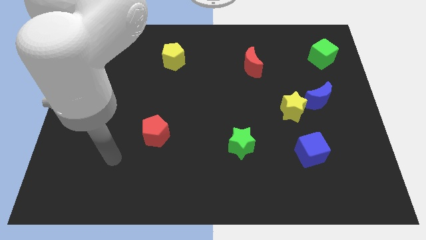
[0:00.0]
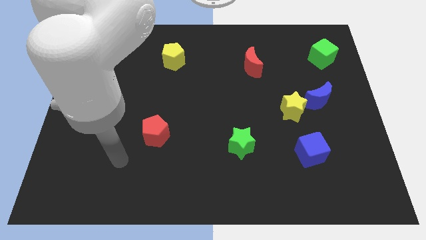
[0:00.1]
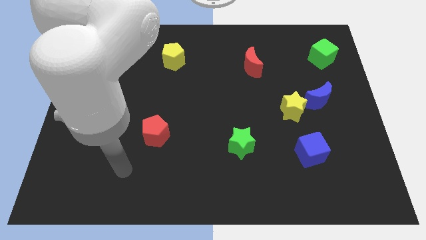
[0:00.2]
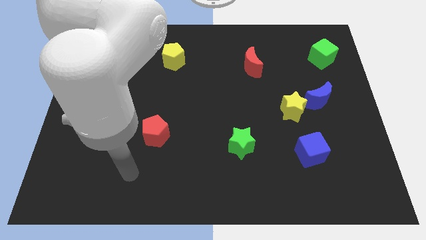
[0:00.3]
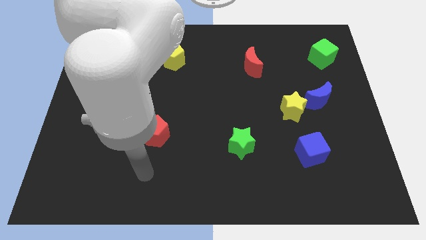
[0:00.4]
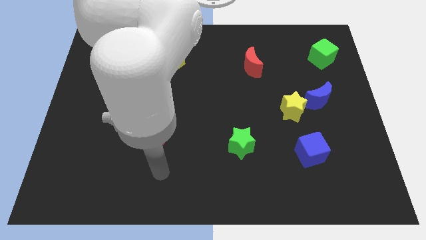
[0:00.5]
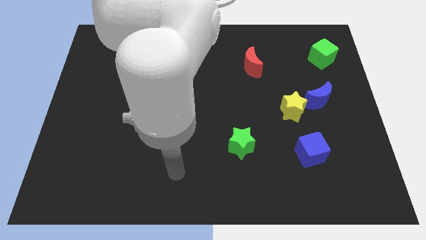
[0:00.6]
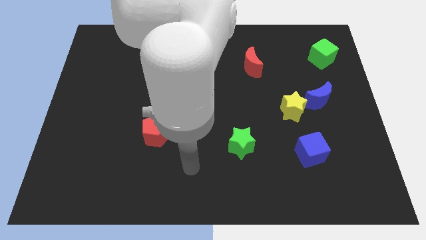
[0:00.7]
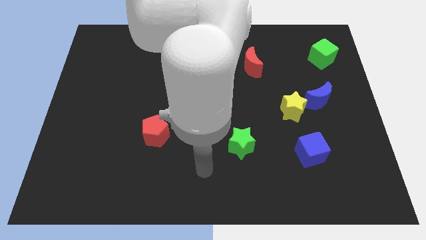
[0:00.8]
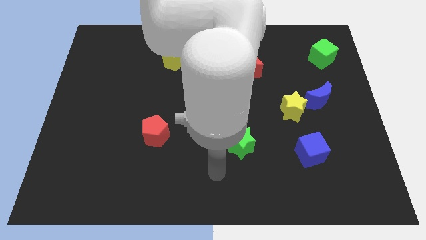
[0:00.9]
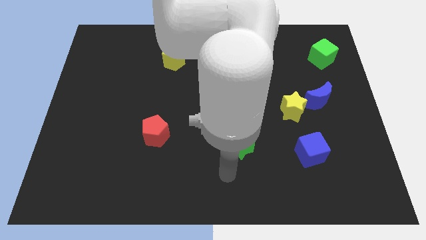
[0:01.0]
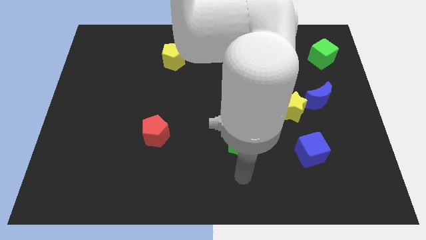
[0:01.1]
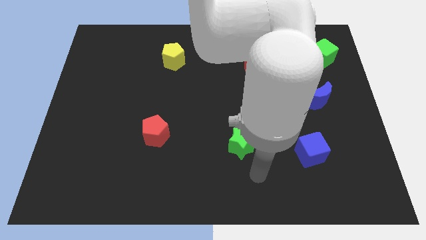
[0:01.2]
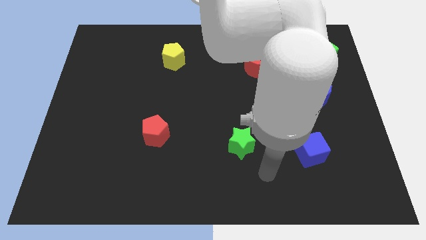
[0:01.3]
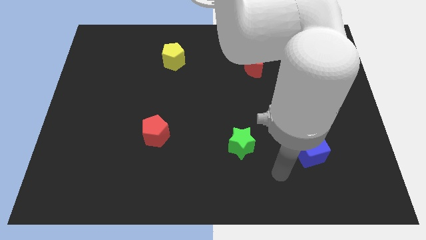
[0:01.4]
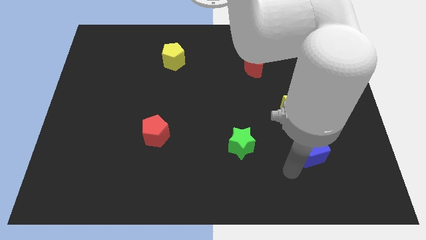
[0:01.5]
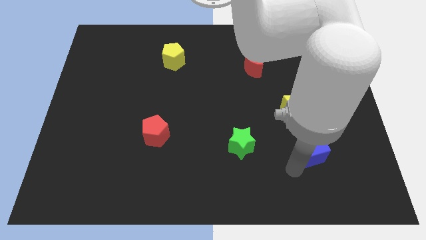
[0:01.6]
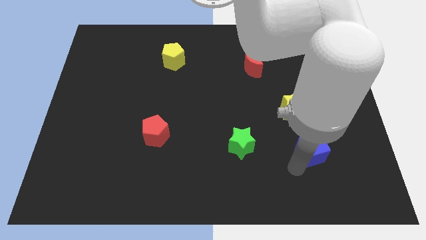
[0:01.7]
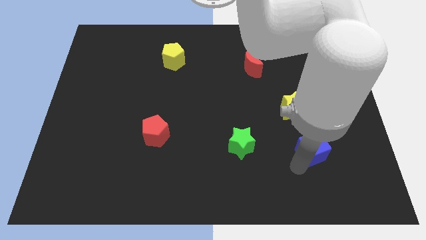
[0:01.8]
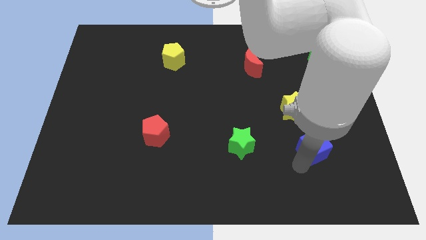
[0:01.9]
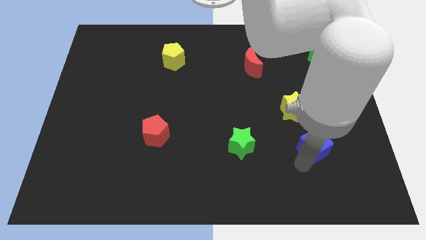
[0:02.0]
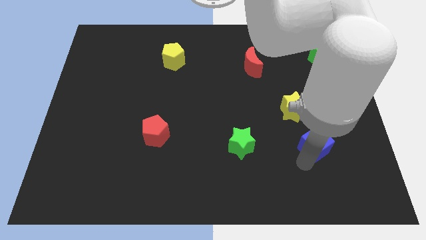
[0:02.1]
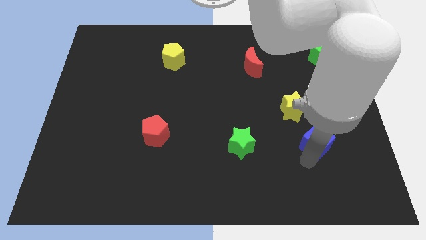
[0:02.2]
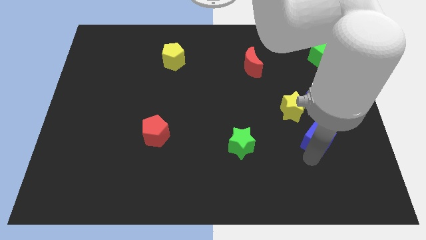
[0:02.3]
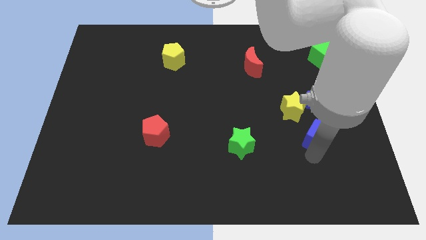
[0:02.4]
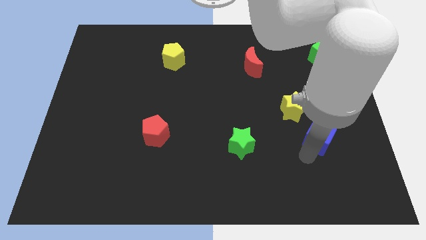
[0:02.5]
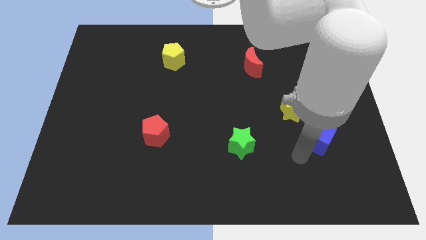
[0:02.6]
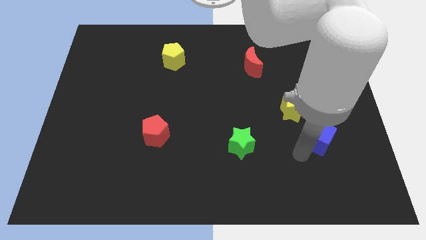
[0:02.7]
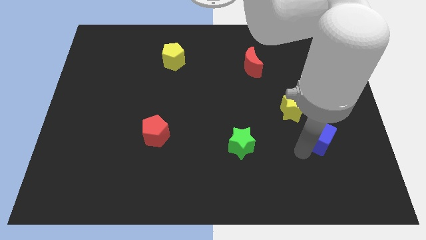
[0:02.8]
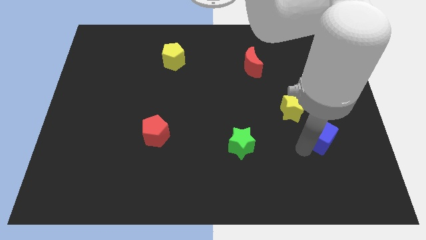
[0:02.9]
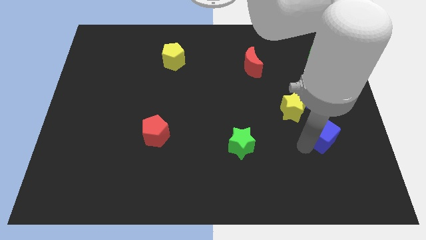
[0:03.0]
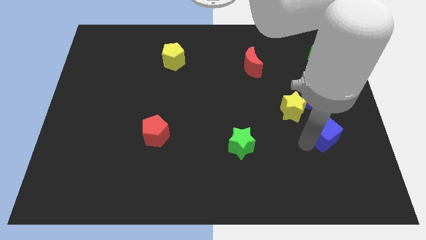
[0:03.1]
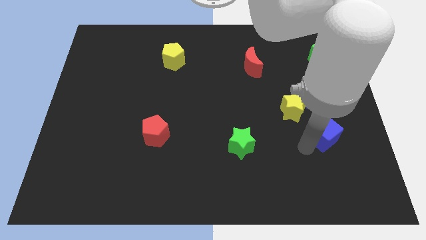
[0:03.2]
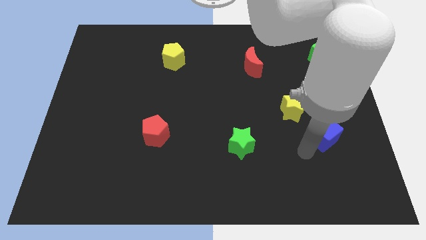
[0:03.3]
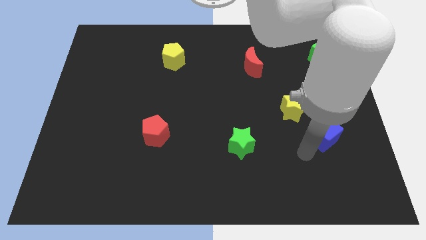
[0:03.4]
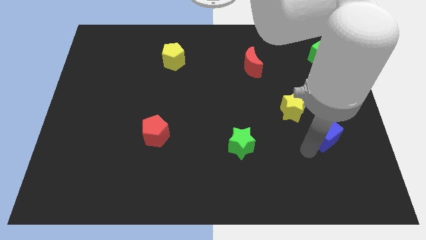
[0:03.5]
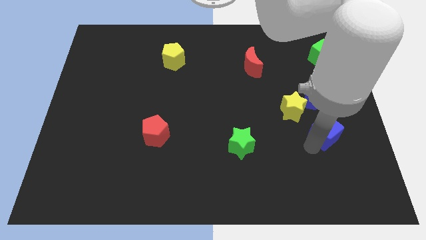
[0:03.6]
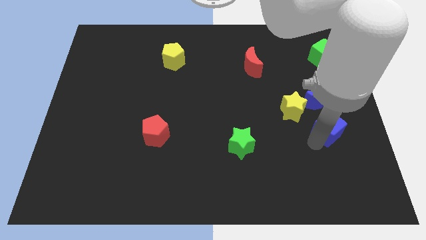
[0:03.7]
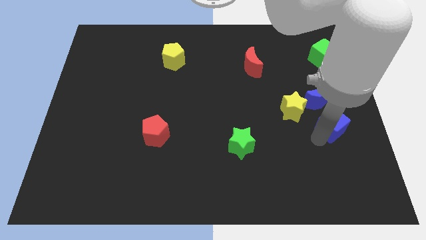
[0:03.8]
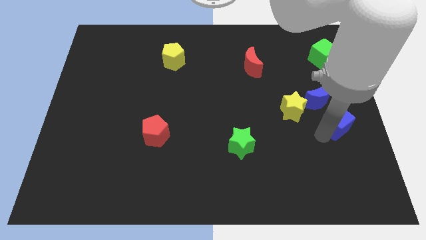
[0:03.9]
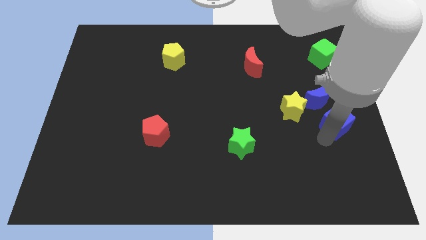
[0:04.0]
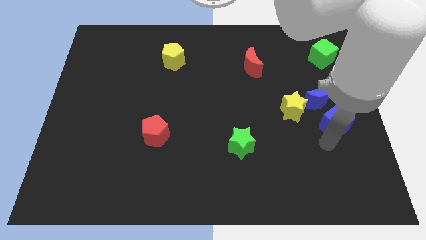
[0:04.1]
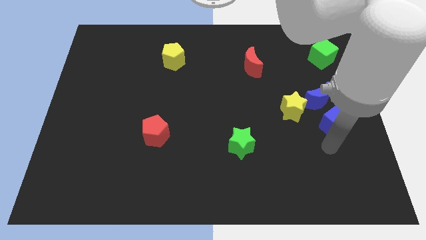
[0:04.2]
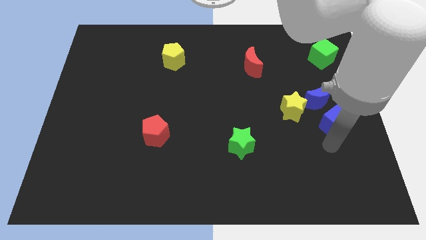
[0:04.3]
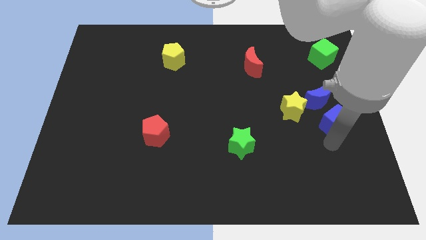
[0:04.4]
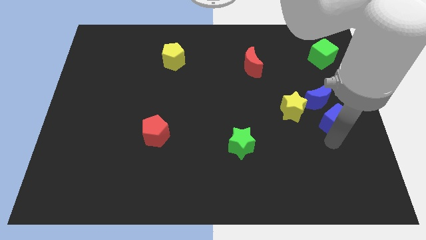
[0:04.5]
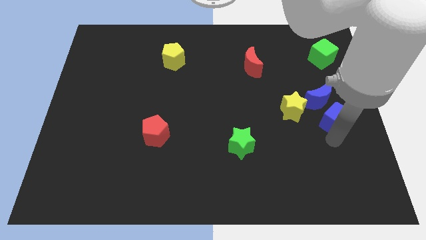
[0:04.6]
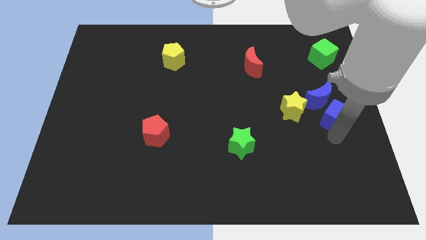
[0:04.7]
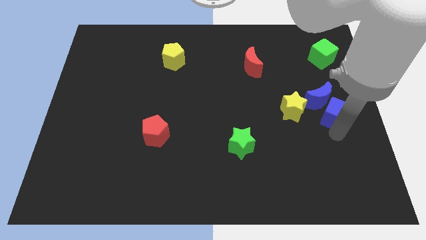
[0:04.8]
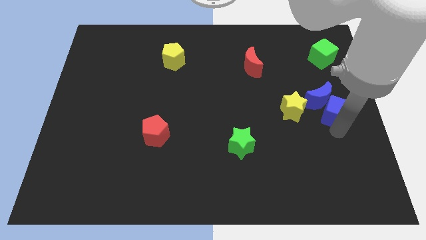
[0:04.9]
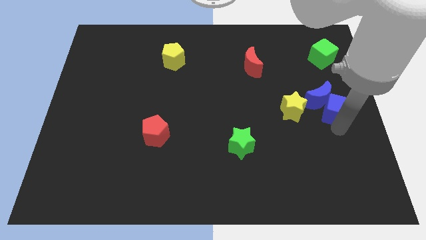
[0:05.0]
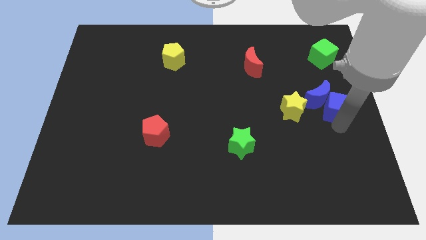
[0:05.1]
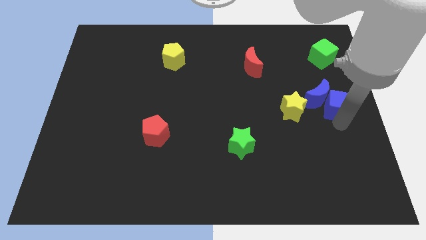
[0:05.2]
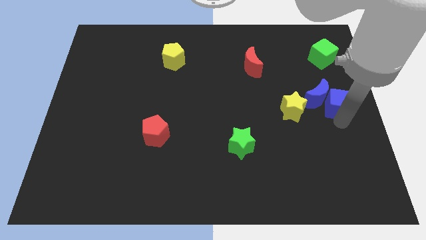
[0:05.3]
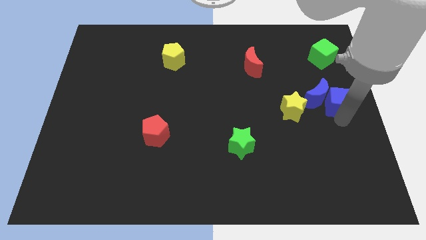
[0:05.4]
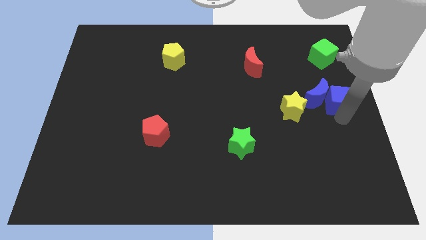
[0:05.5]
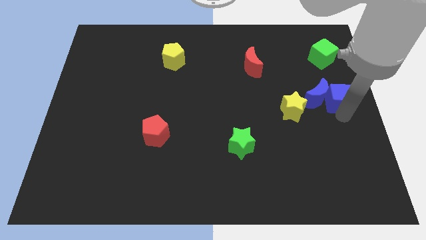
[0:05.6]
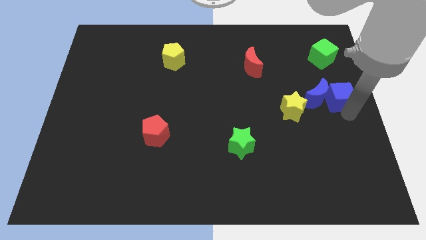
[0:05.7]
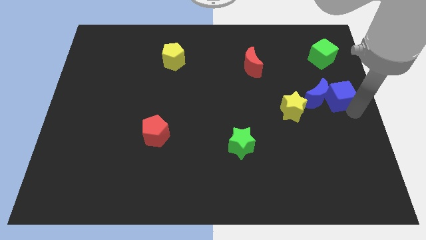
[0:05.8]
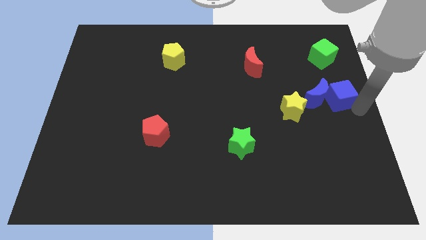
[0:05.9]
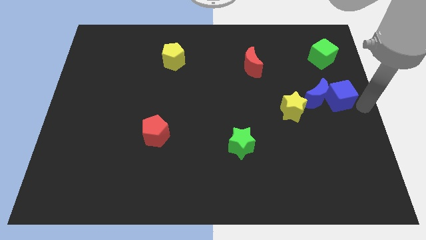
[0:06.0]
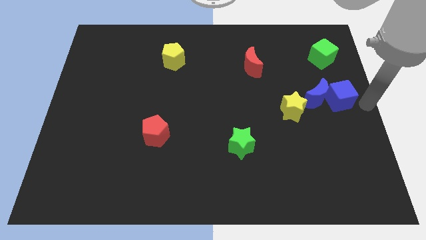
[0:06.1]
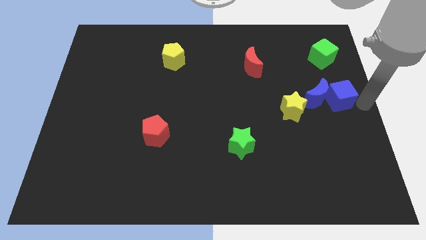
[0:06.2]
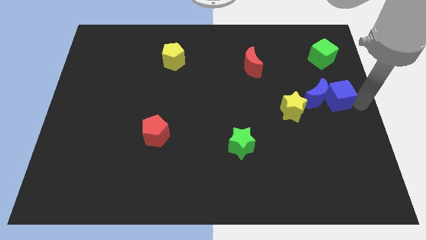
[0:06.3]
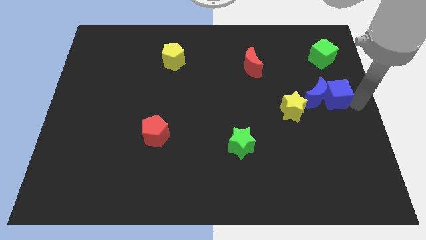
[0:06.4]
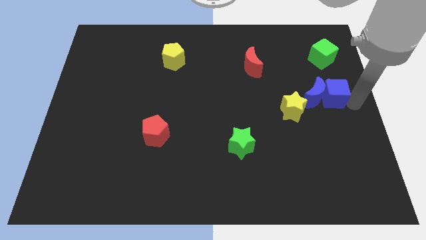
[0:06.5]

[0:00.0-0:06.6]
move the blue cube to the top right side of the yellow star
